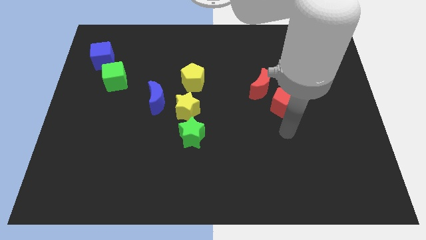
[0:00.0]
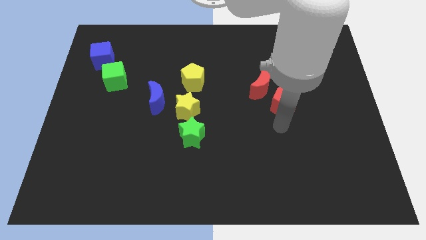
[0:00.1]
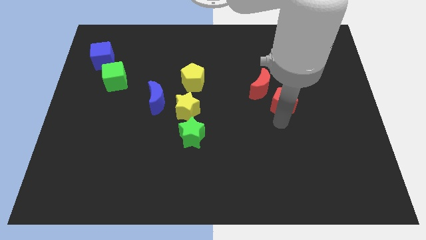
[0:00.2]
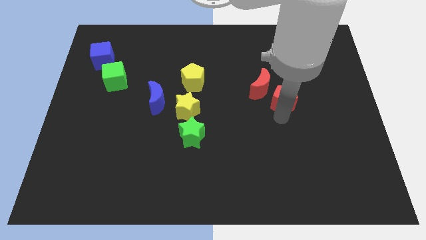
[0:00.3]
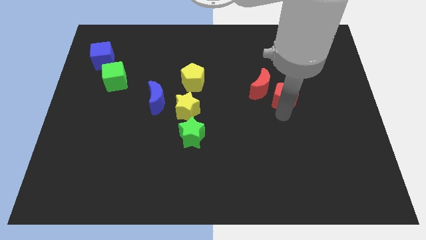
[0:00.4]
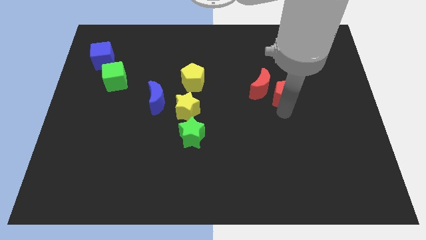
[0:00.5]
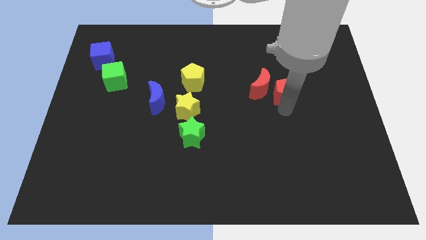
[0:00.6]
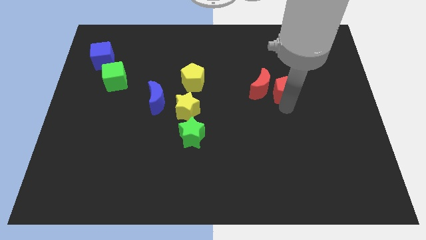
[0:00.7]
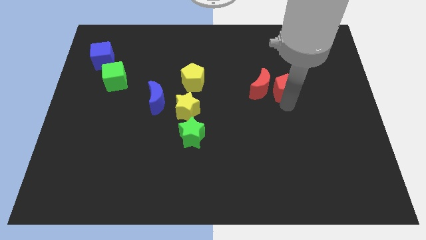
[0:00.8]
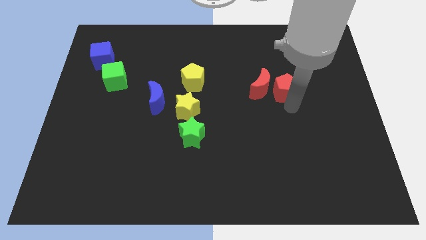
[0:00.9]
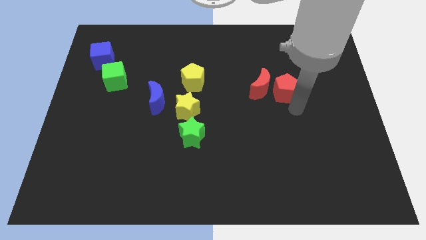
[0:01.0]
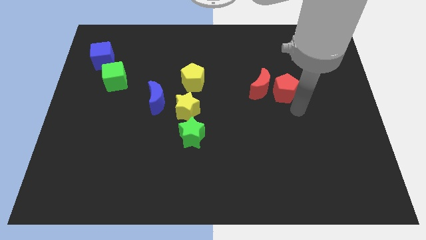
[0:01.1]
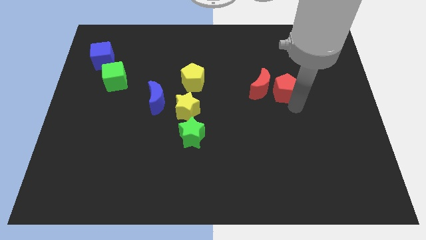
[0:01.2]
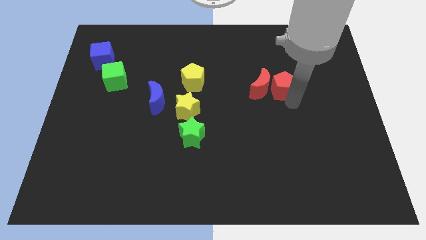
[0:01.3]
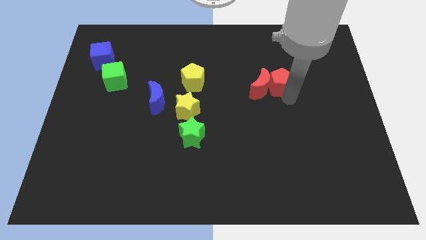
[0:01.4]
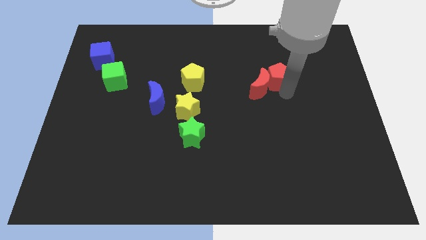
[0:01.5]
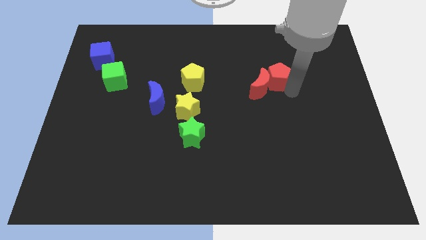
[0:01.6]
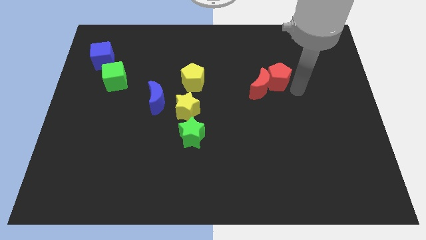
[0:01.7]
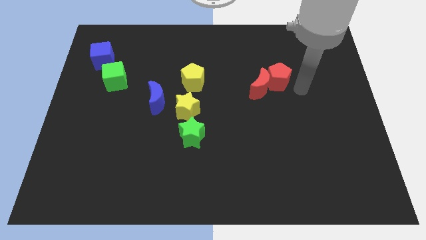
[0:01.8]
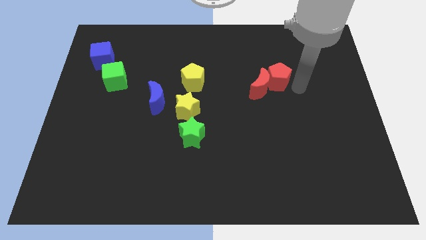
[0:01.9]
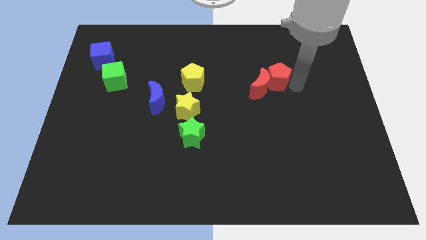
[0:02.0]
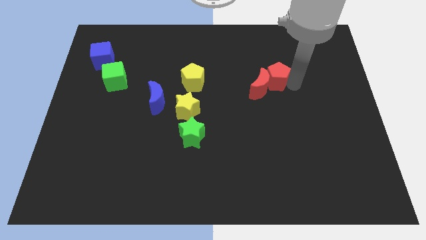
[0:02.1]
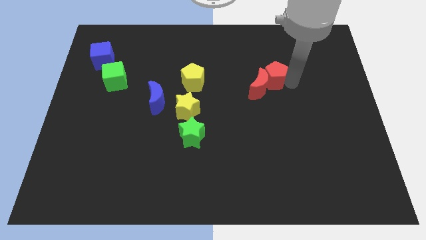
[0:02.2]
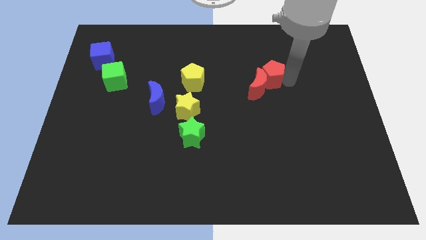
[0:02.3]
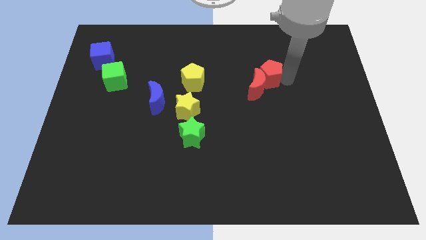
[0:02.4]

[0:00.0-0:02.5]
push the red pentagon somewhat up and left

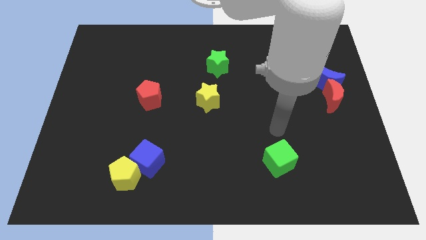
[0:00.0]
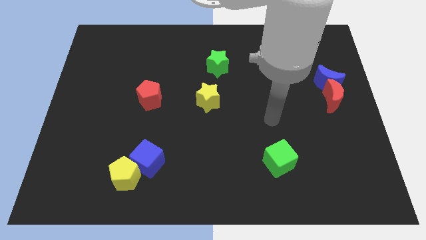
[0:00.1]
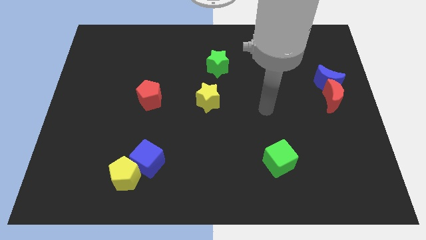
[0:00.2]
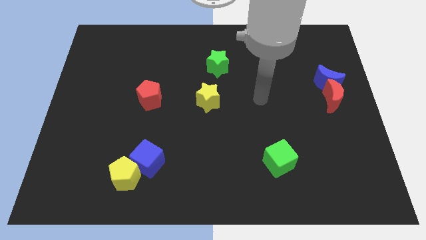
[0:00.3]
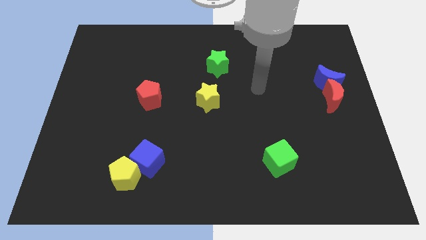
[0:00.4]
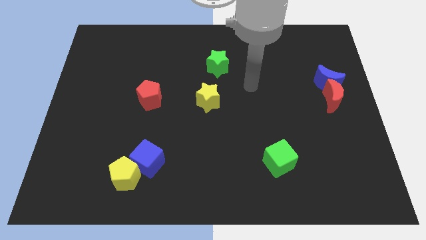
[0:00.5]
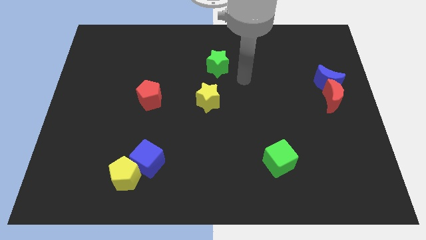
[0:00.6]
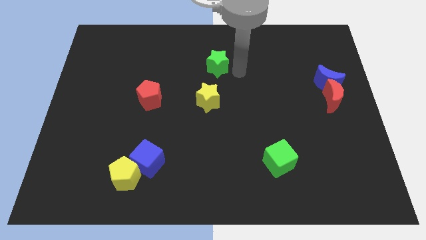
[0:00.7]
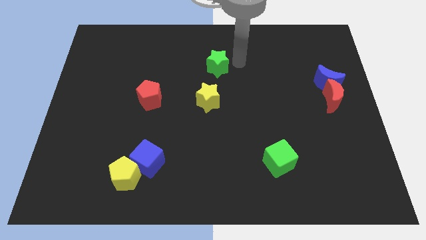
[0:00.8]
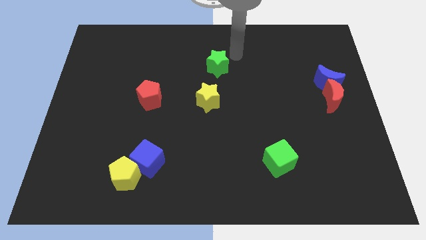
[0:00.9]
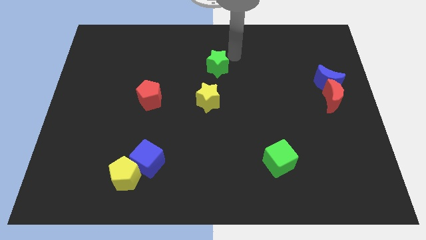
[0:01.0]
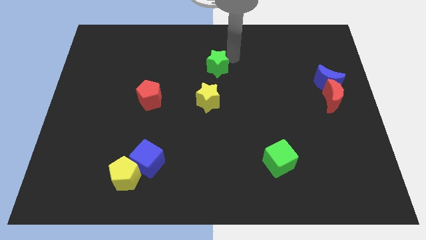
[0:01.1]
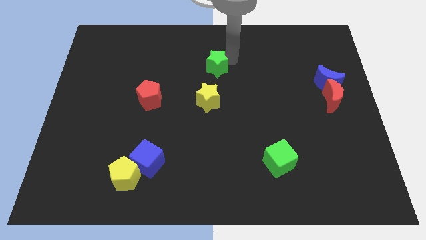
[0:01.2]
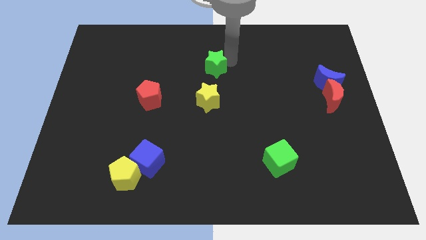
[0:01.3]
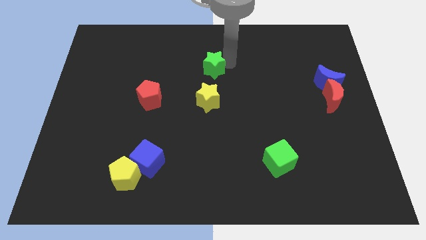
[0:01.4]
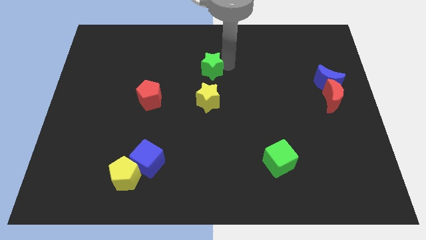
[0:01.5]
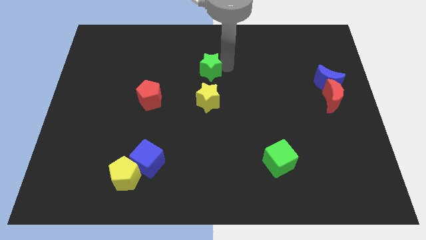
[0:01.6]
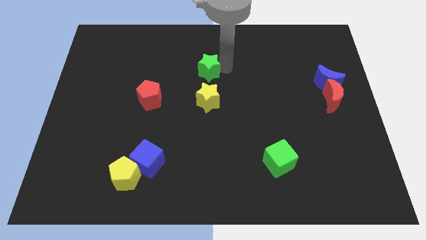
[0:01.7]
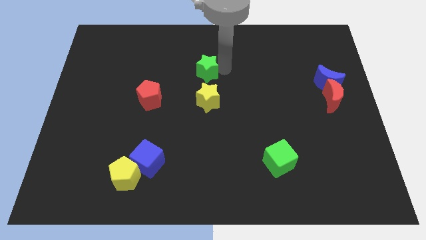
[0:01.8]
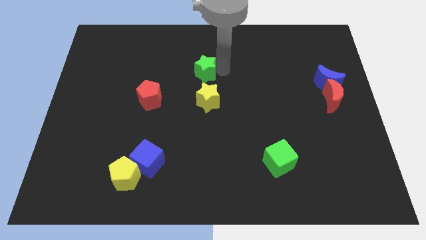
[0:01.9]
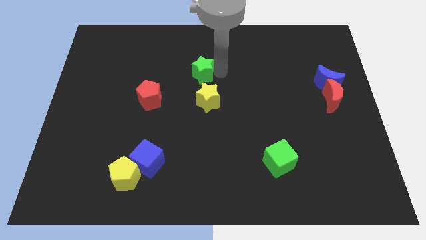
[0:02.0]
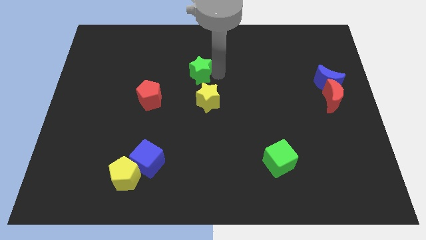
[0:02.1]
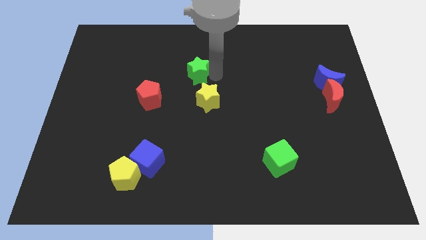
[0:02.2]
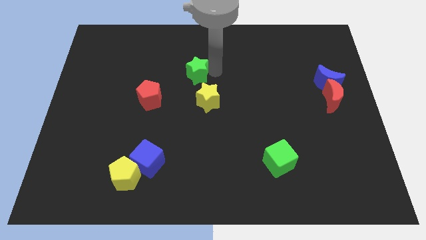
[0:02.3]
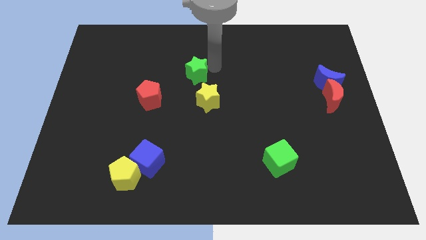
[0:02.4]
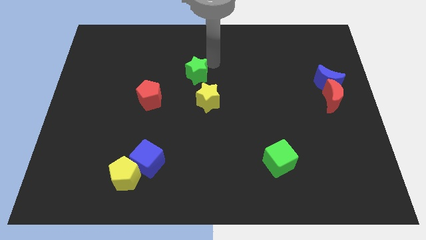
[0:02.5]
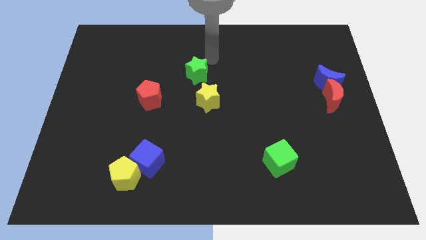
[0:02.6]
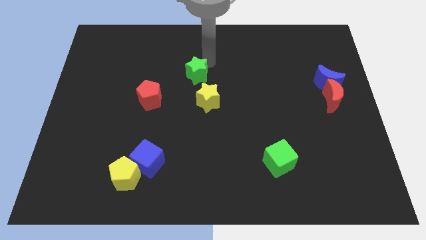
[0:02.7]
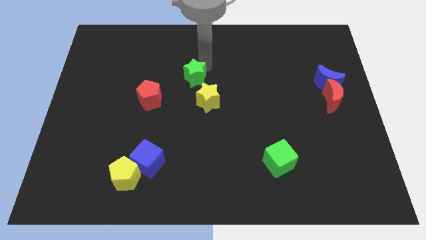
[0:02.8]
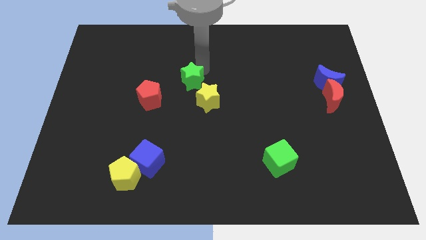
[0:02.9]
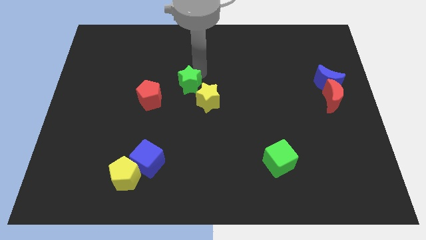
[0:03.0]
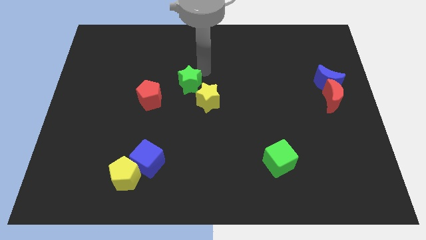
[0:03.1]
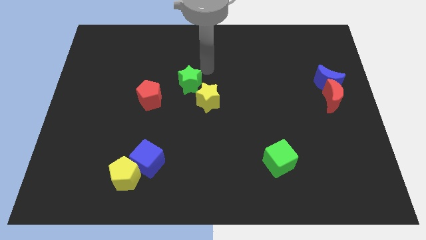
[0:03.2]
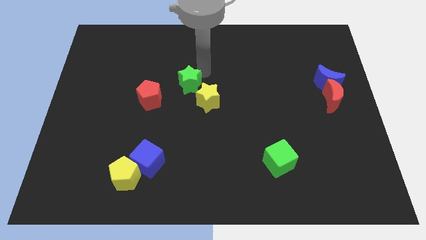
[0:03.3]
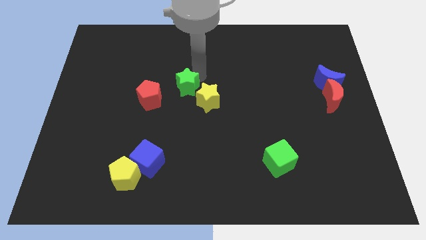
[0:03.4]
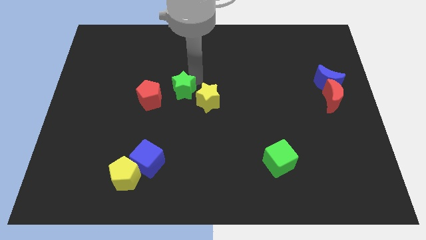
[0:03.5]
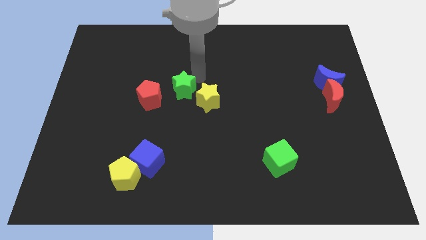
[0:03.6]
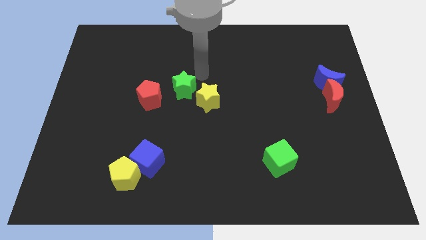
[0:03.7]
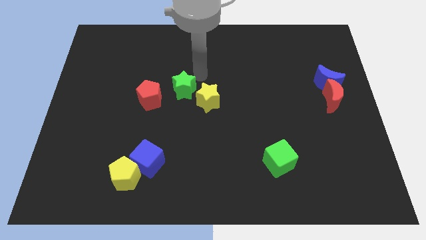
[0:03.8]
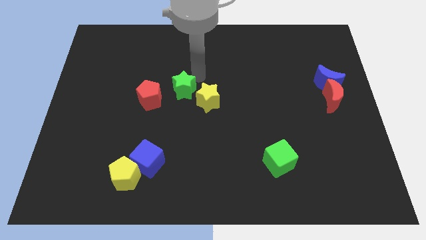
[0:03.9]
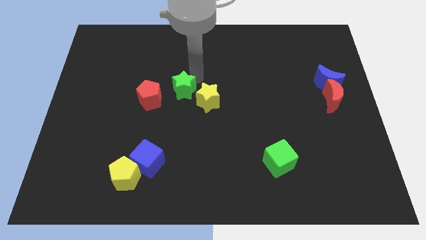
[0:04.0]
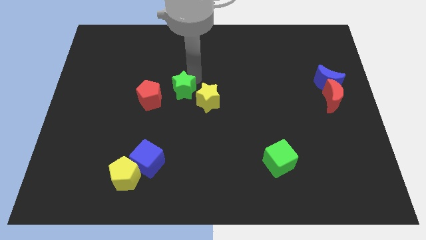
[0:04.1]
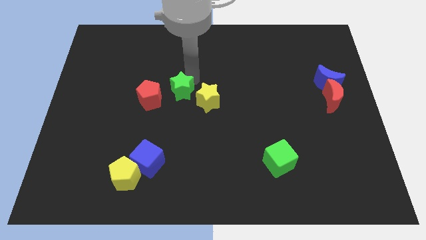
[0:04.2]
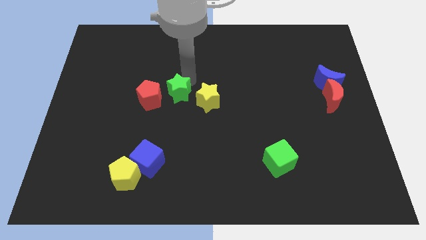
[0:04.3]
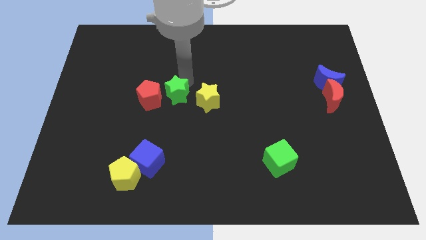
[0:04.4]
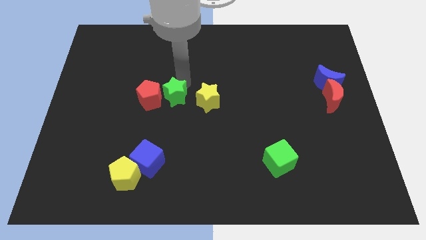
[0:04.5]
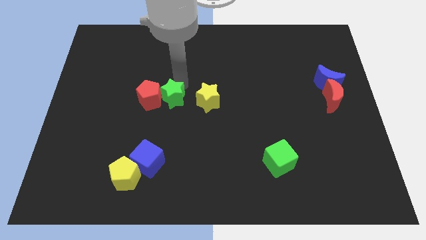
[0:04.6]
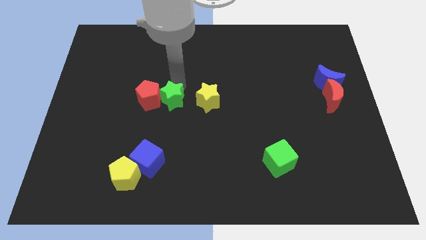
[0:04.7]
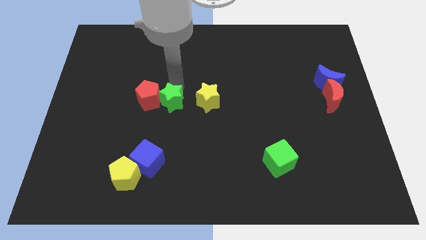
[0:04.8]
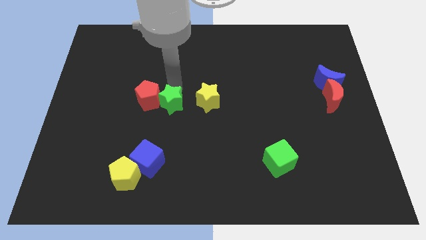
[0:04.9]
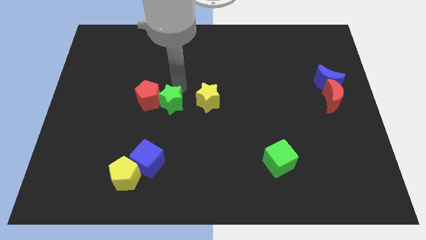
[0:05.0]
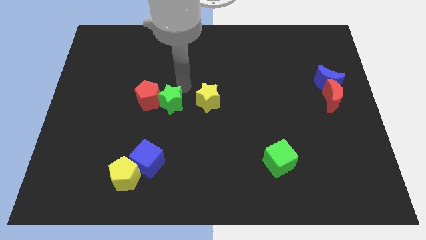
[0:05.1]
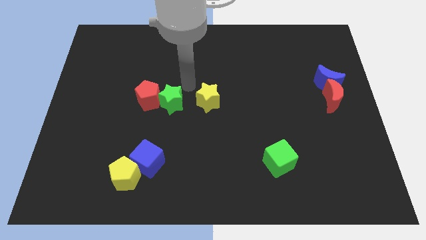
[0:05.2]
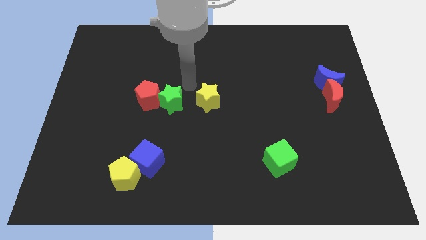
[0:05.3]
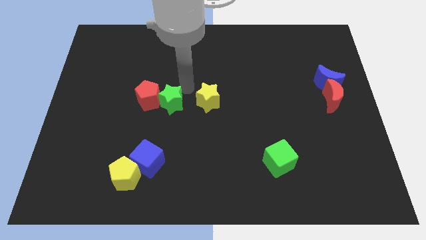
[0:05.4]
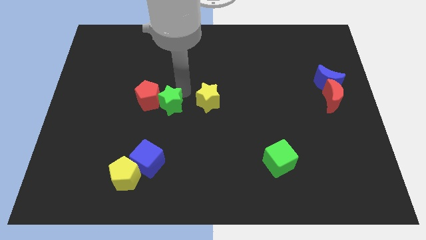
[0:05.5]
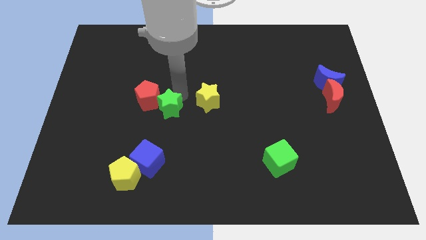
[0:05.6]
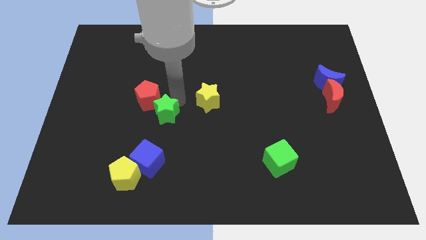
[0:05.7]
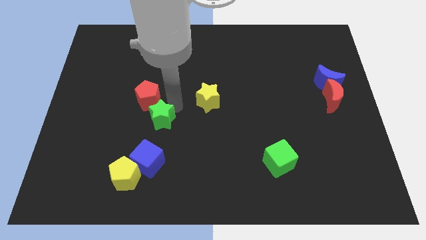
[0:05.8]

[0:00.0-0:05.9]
move the green star down and then left
